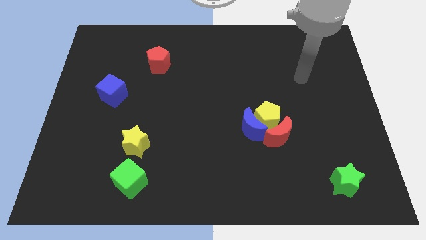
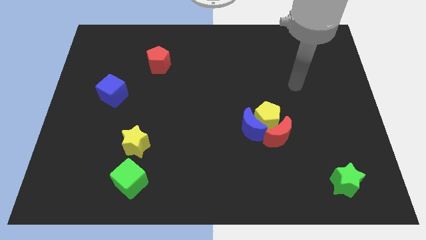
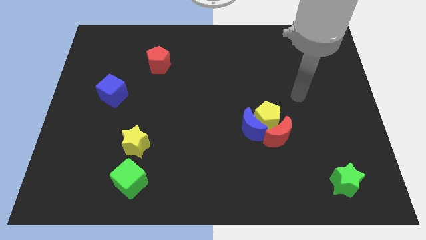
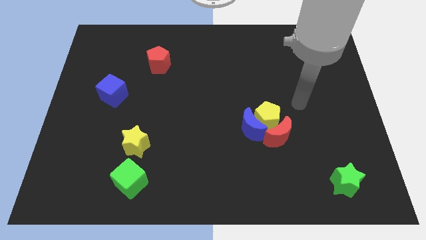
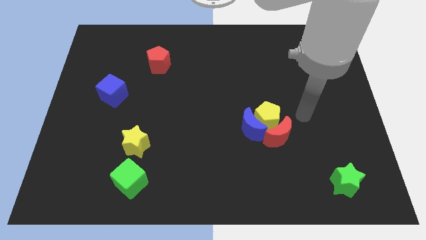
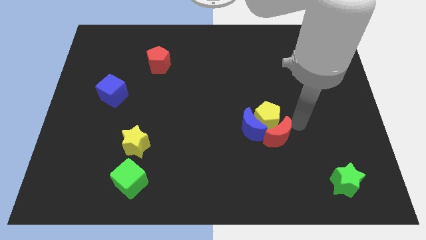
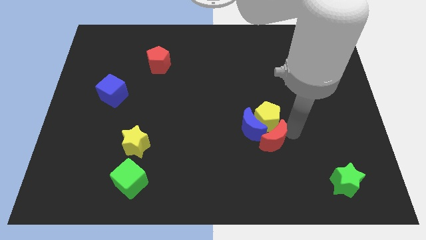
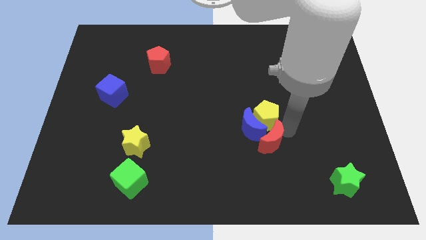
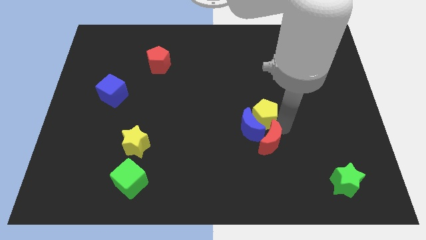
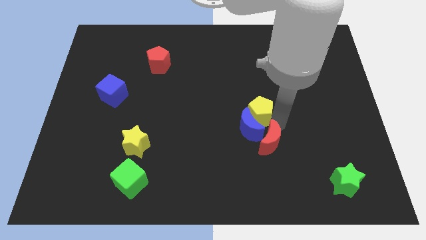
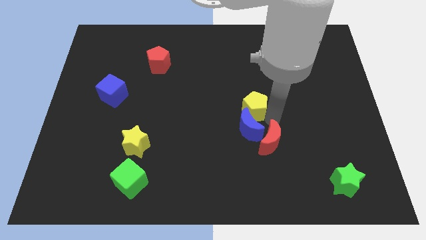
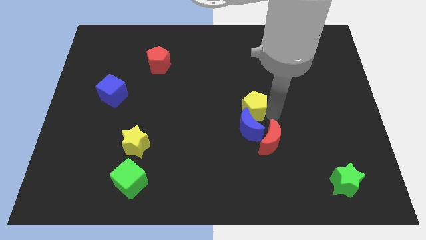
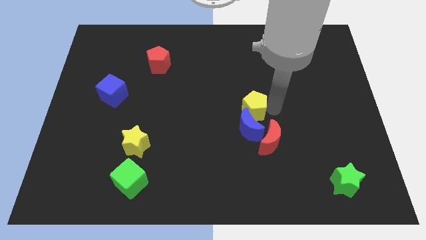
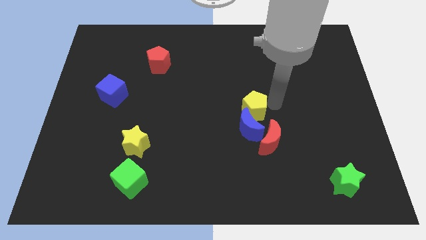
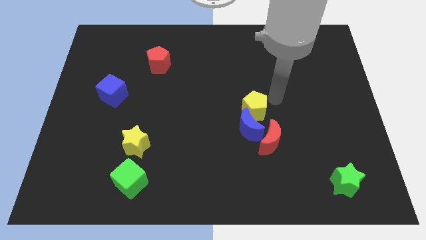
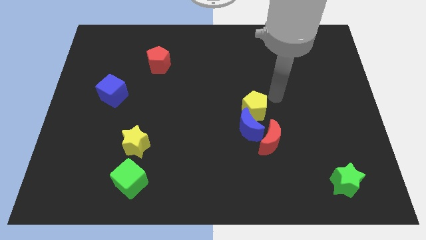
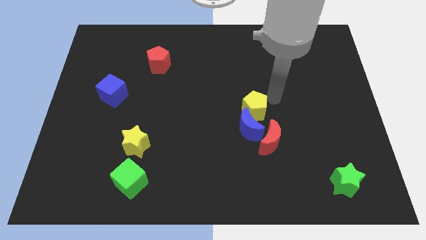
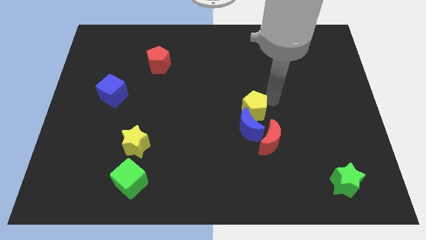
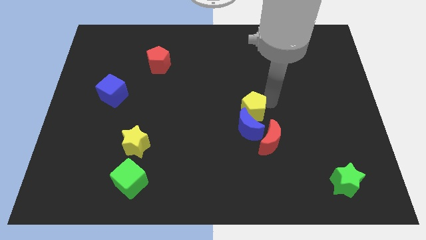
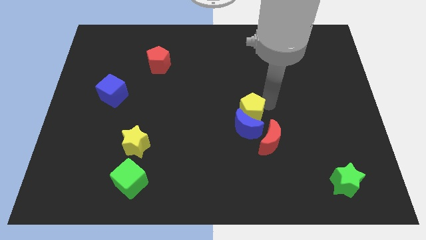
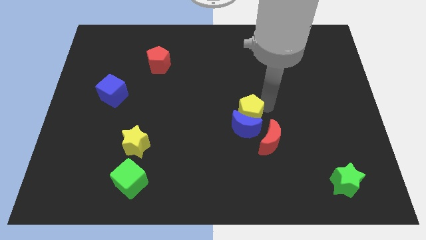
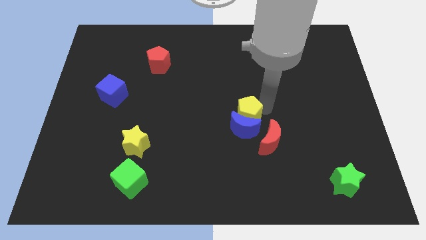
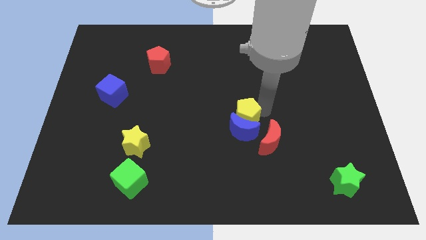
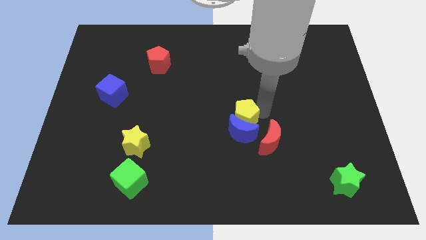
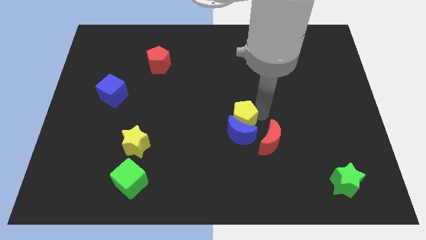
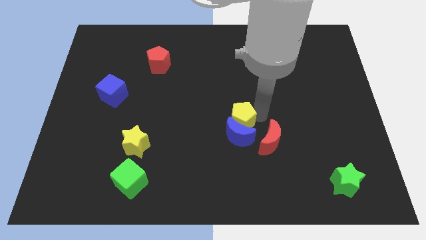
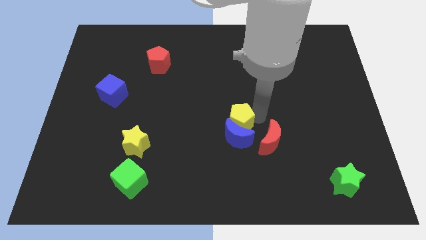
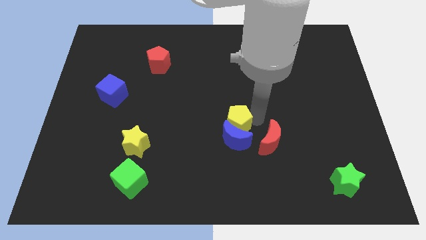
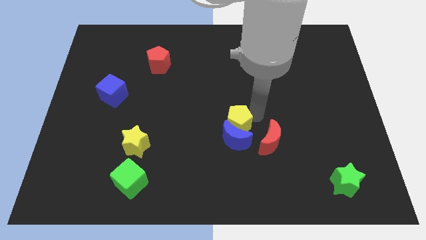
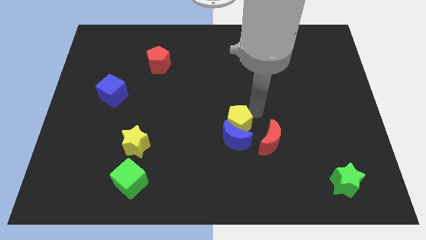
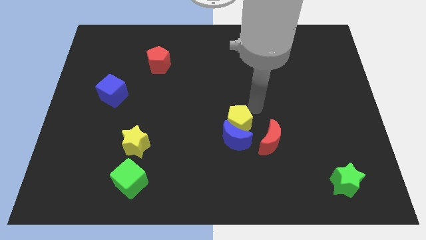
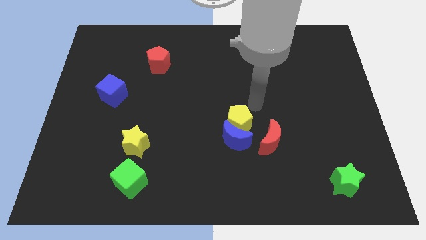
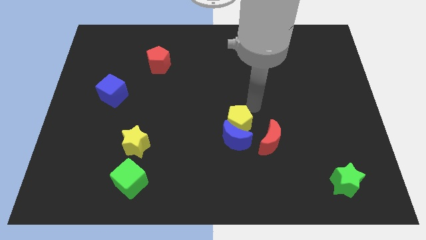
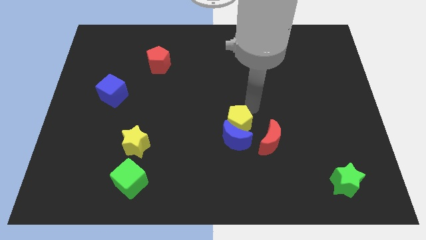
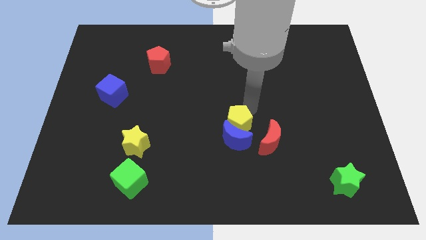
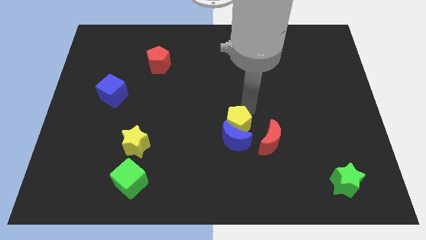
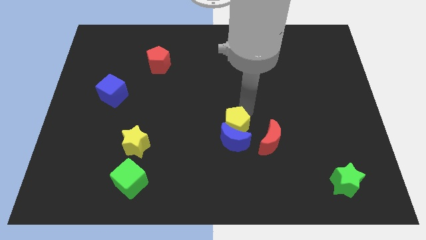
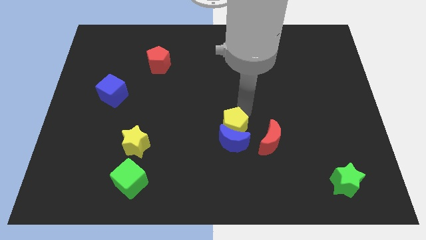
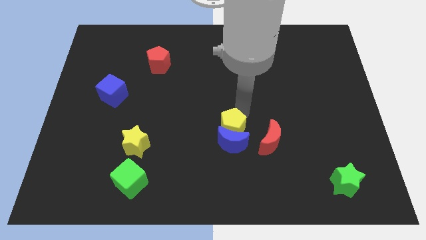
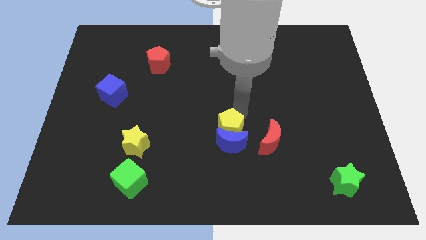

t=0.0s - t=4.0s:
slightly push the yellow pentagon downwards and then left

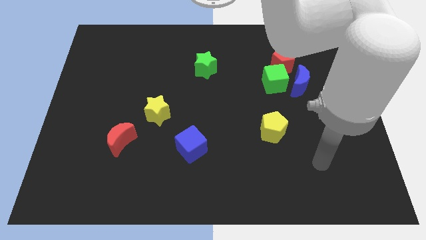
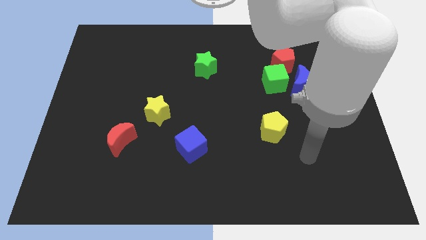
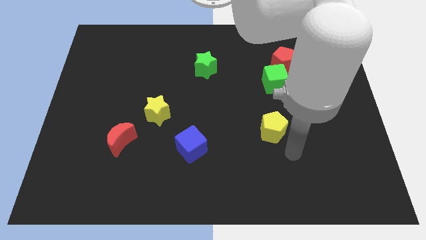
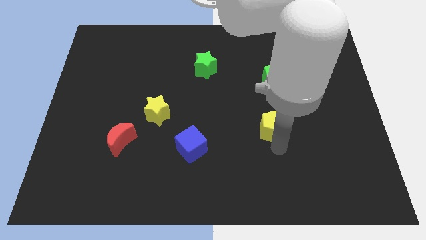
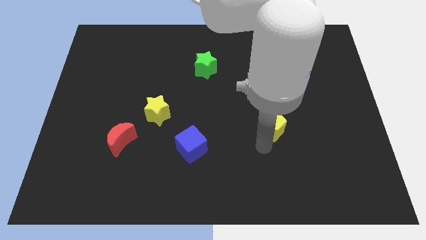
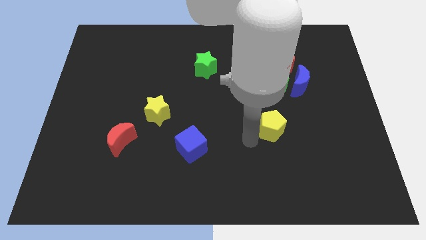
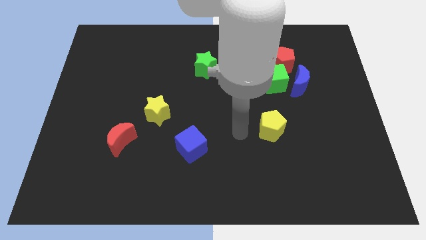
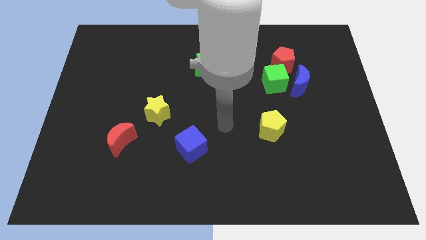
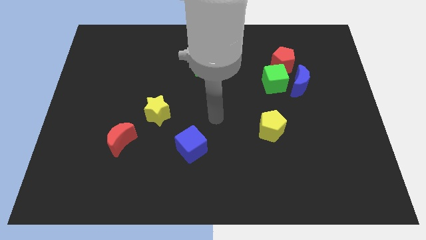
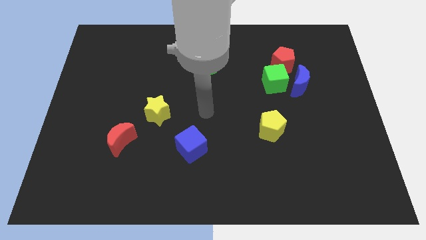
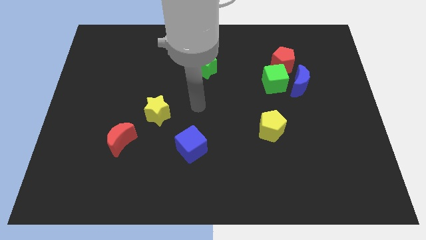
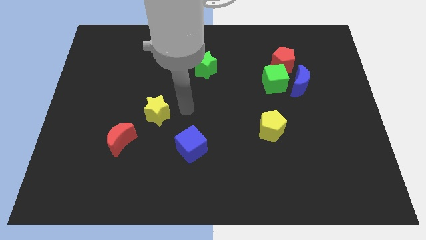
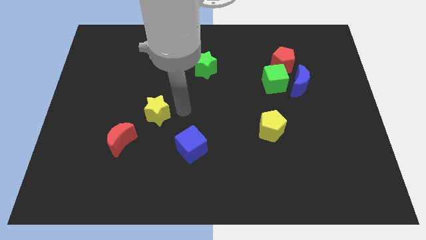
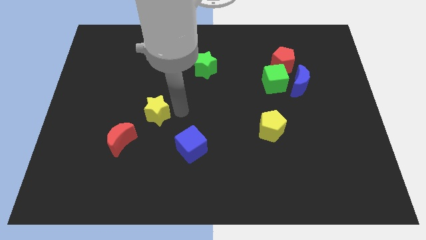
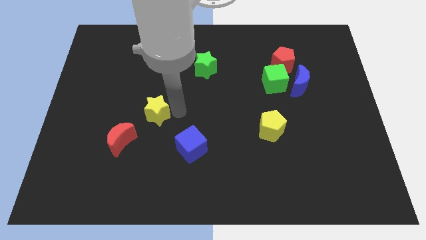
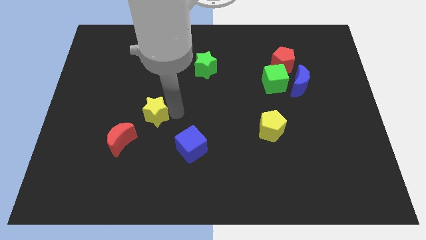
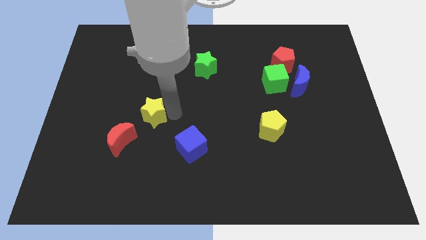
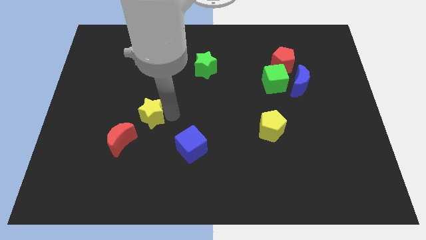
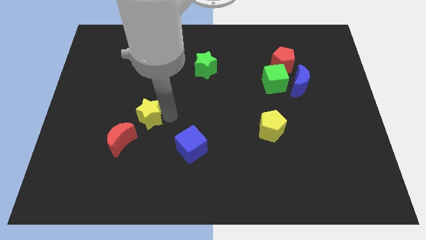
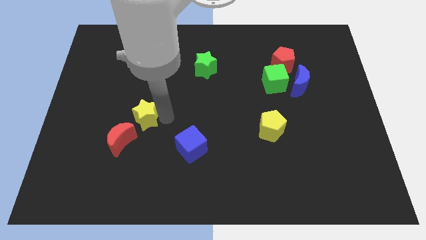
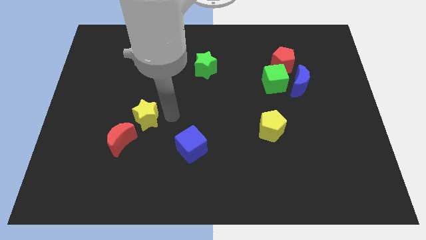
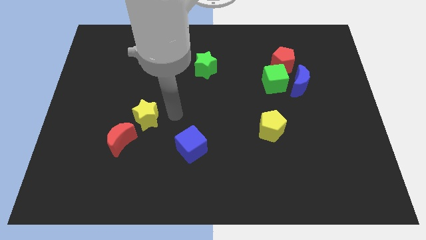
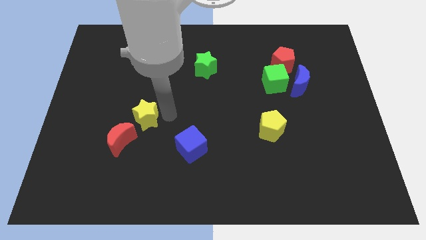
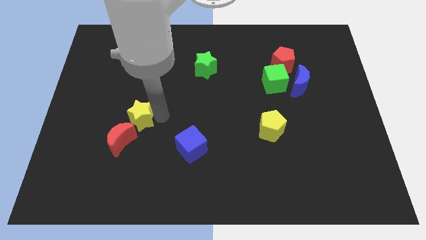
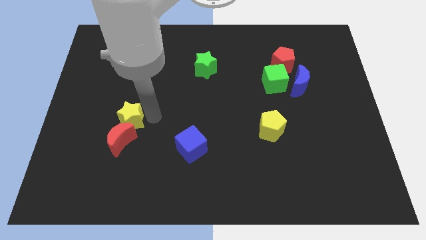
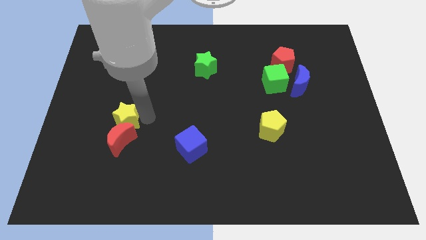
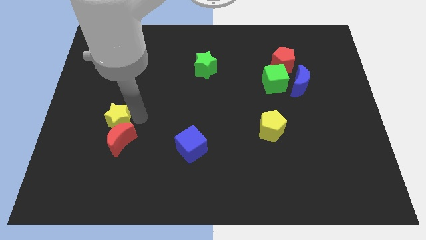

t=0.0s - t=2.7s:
slightly move the yellow star downwards and then left

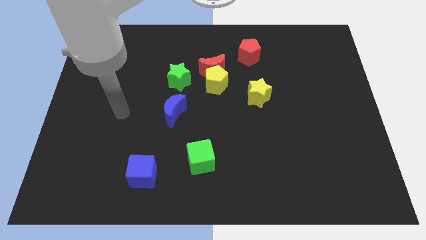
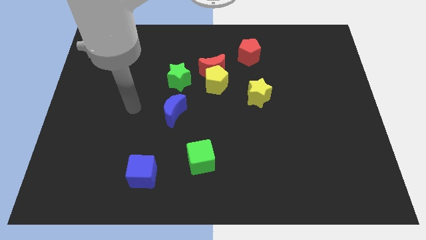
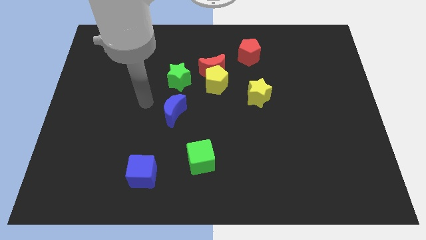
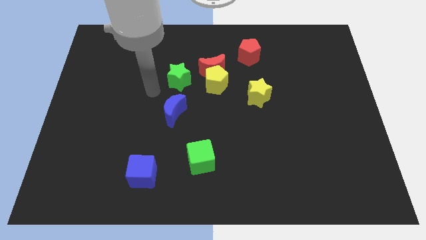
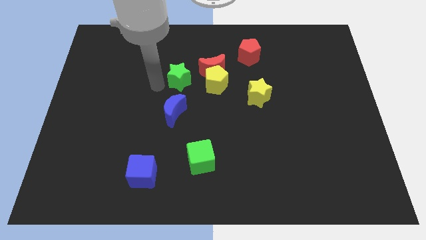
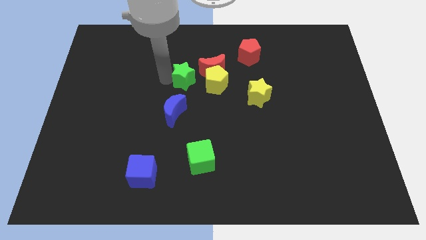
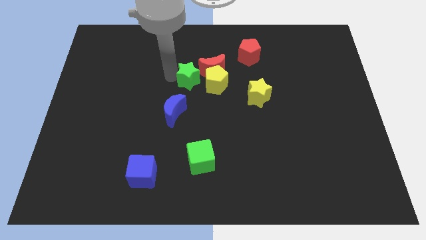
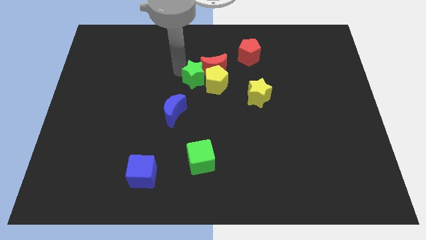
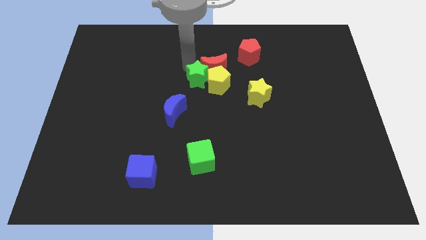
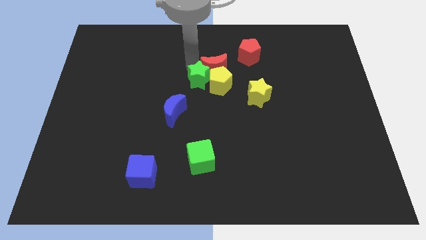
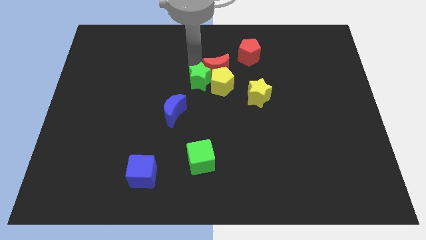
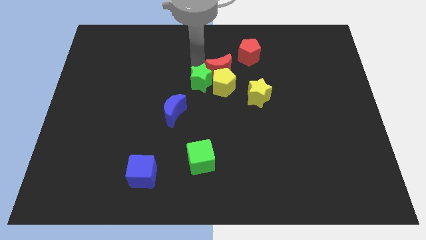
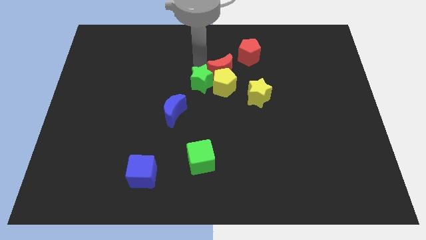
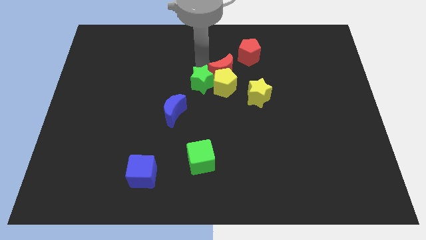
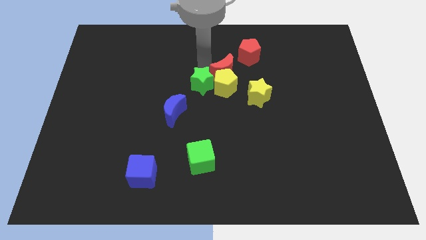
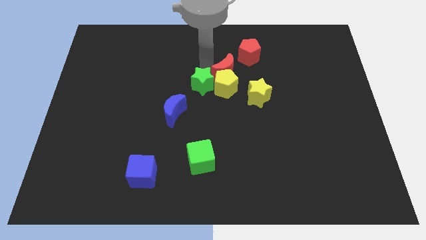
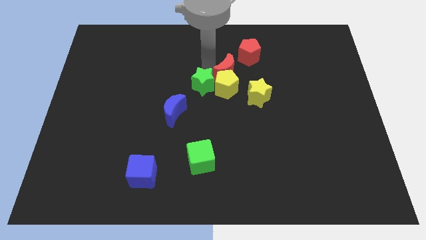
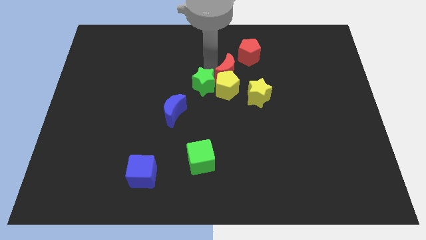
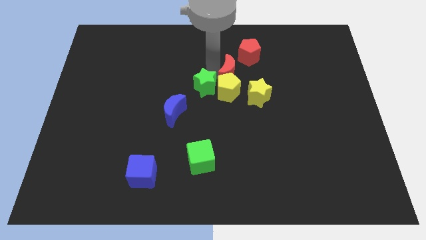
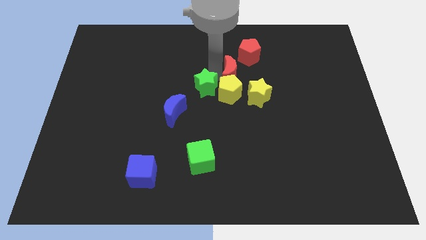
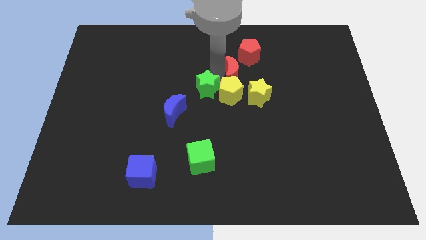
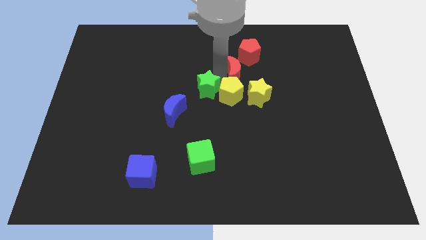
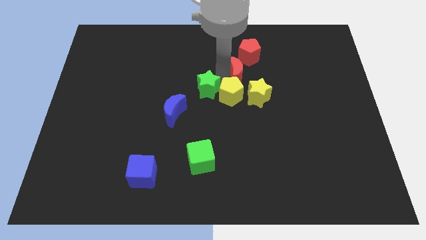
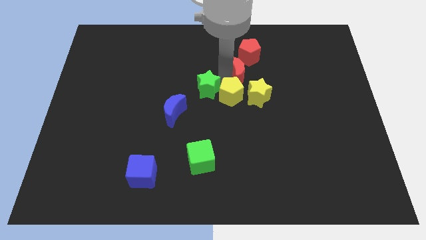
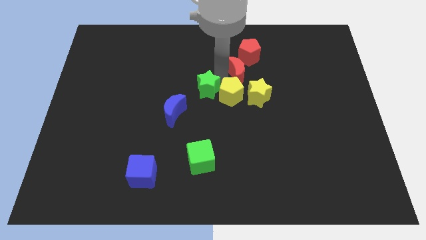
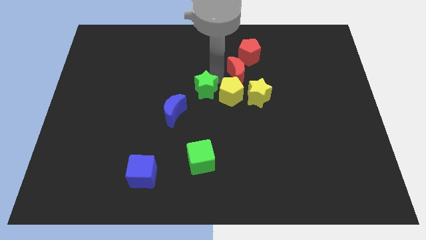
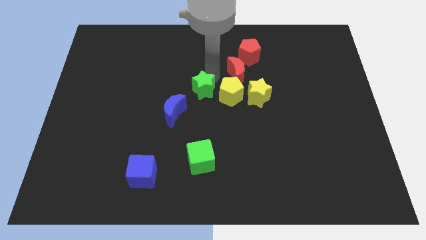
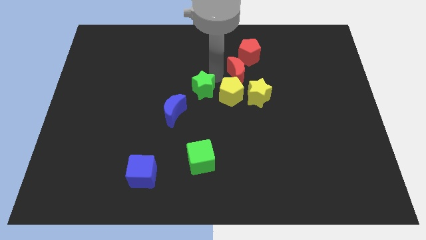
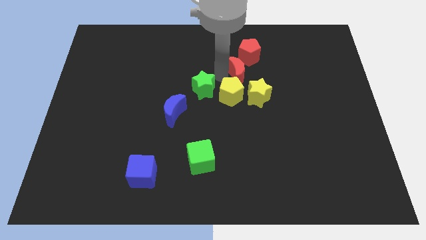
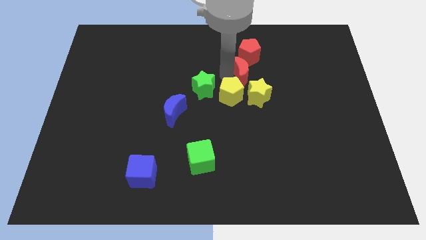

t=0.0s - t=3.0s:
slide the red moon a little to the right
